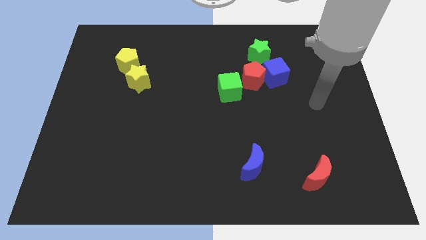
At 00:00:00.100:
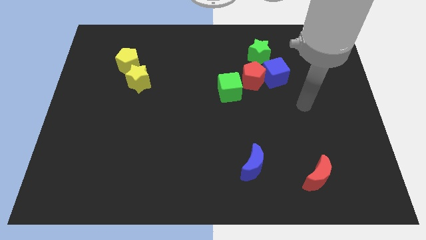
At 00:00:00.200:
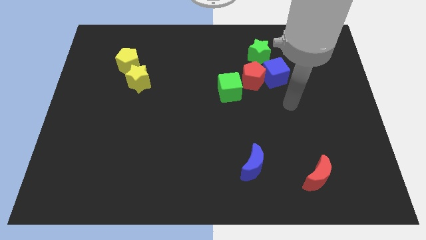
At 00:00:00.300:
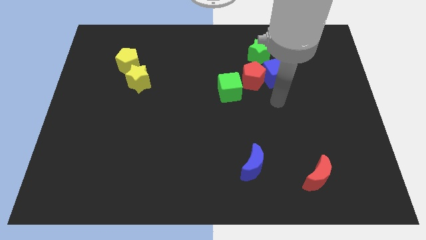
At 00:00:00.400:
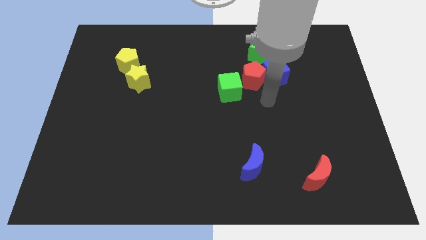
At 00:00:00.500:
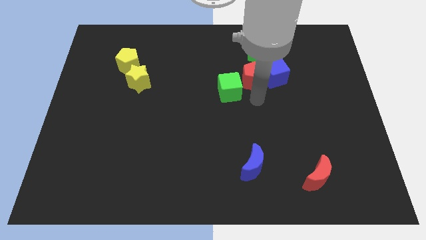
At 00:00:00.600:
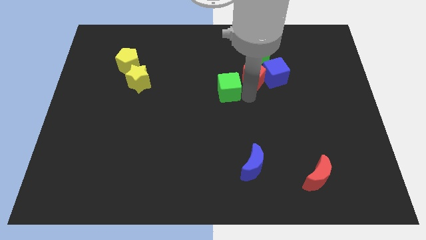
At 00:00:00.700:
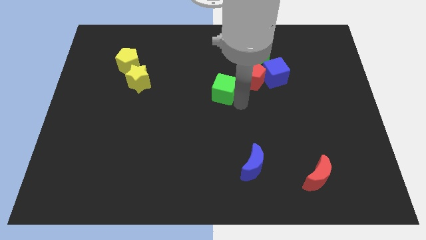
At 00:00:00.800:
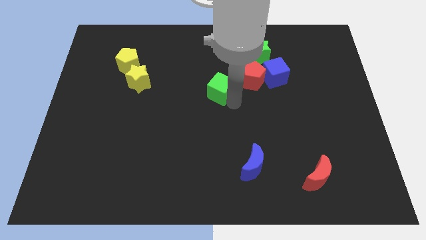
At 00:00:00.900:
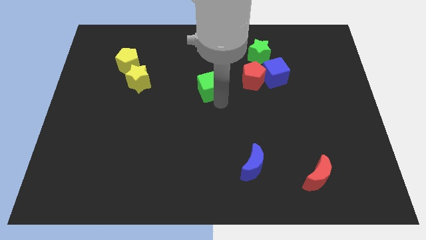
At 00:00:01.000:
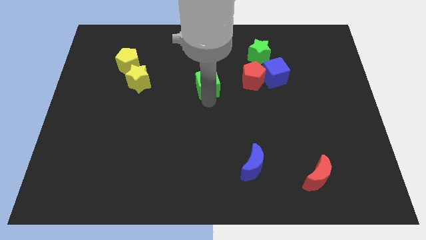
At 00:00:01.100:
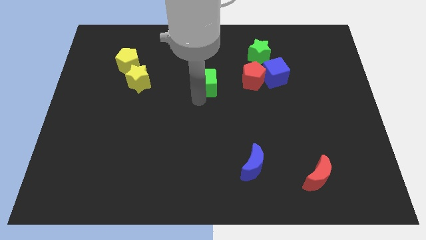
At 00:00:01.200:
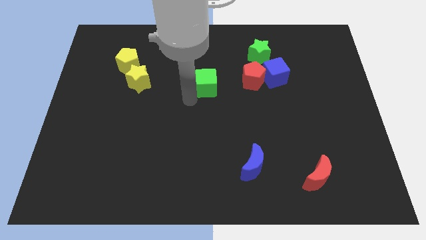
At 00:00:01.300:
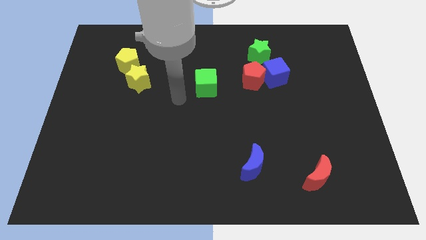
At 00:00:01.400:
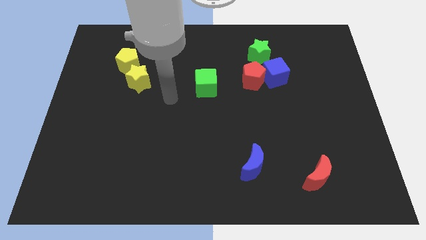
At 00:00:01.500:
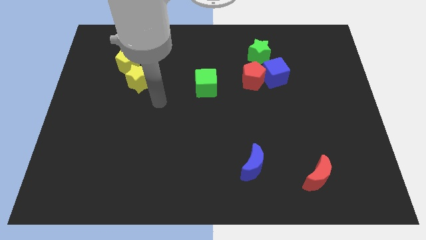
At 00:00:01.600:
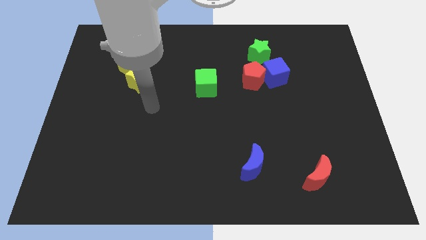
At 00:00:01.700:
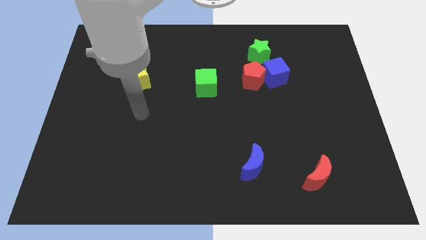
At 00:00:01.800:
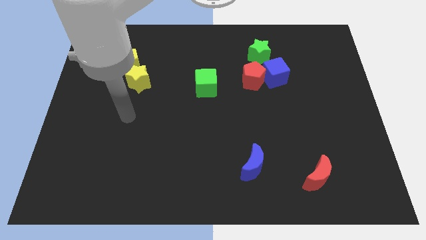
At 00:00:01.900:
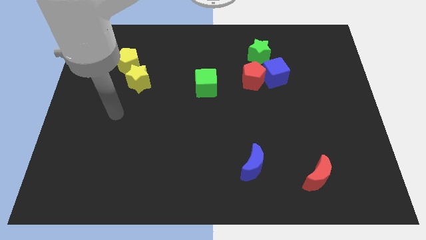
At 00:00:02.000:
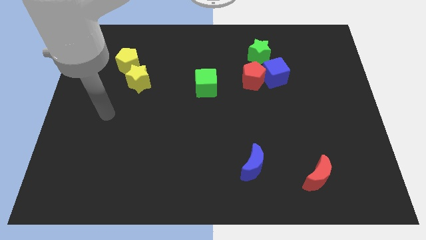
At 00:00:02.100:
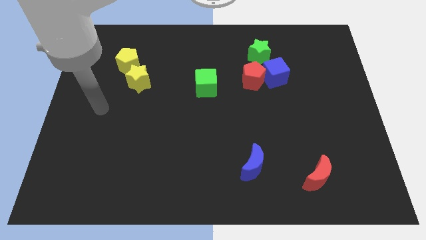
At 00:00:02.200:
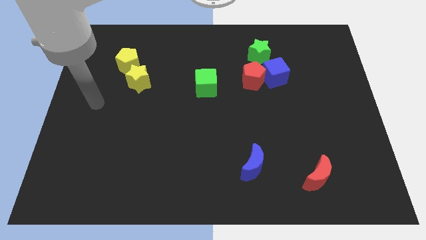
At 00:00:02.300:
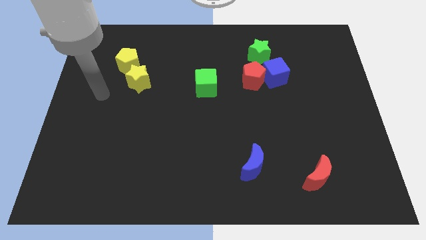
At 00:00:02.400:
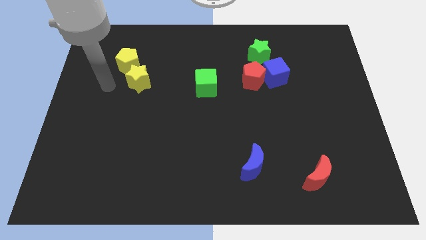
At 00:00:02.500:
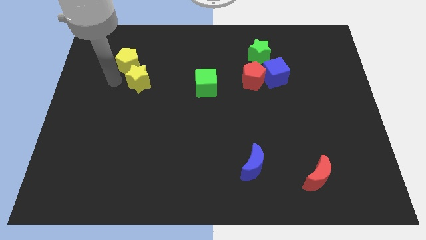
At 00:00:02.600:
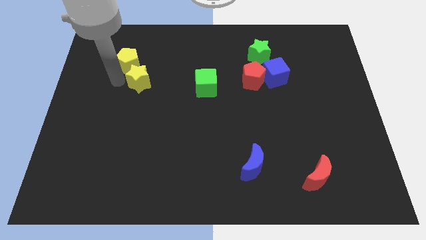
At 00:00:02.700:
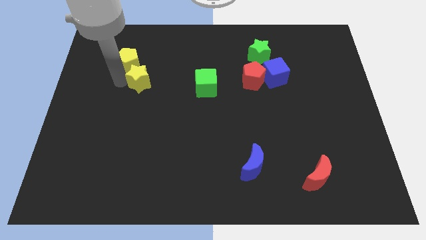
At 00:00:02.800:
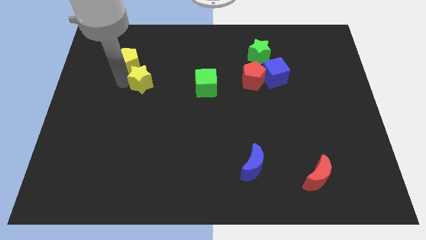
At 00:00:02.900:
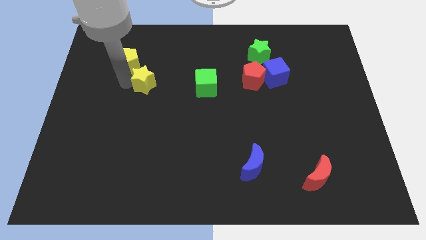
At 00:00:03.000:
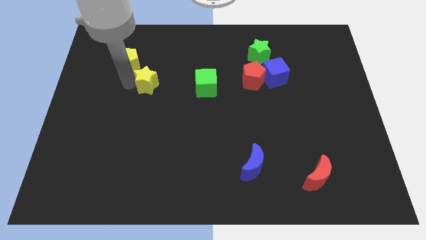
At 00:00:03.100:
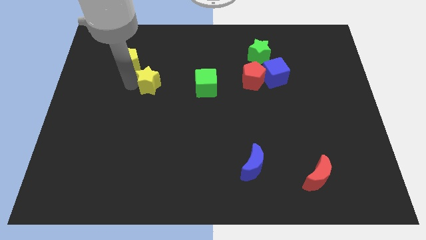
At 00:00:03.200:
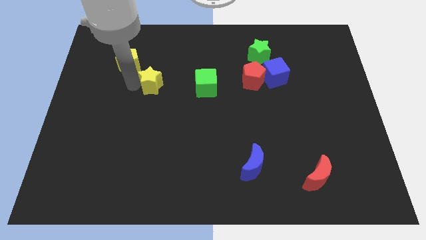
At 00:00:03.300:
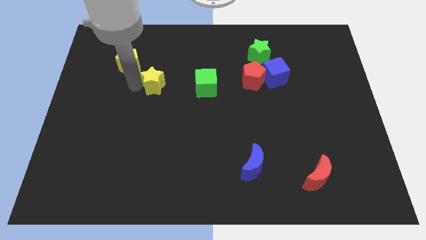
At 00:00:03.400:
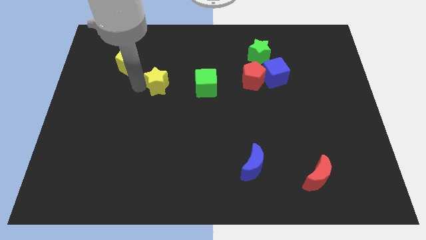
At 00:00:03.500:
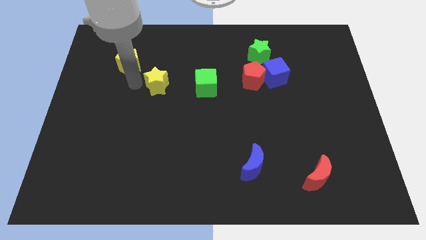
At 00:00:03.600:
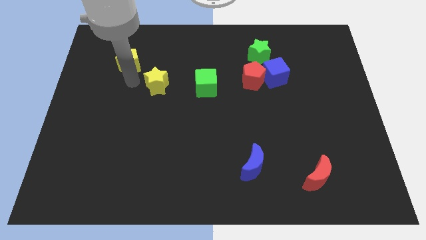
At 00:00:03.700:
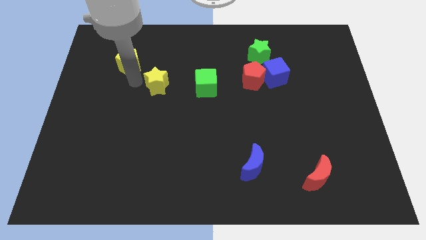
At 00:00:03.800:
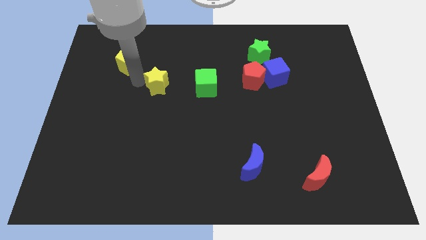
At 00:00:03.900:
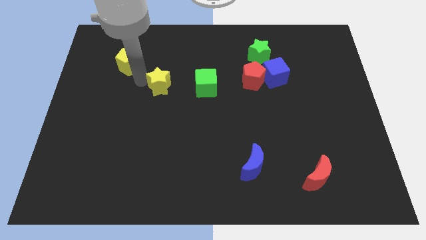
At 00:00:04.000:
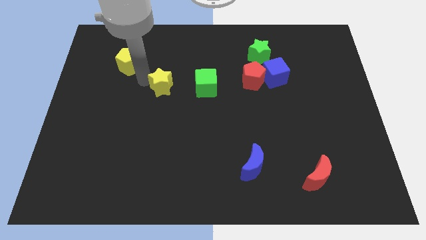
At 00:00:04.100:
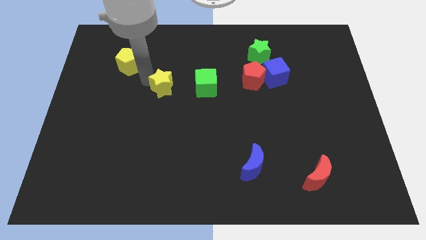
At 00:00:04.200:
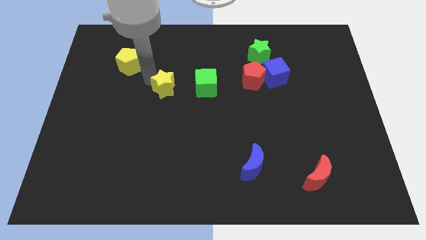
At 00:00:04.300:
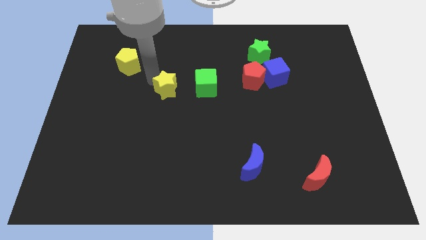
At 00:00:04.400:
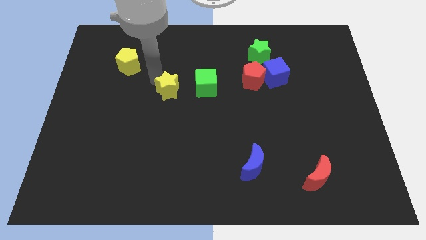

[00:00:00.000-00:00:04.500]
move the yellow star right somewhat

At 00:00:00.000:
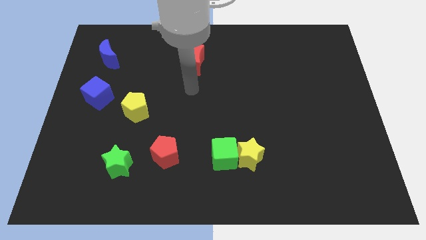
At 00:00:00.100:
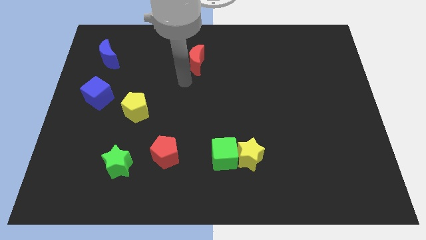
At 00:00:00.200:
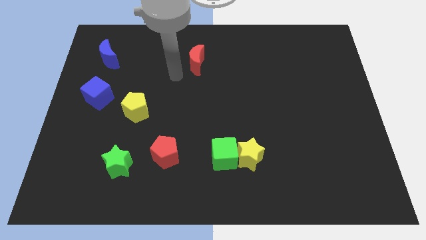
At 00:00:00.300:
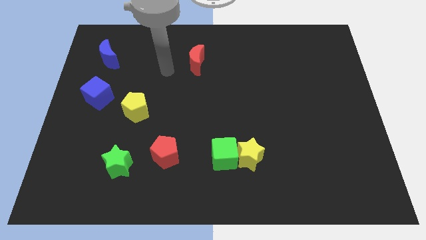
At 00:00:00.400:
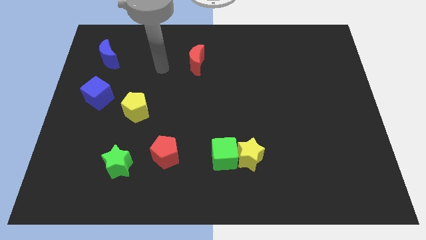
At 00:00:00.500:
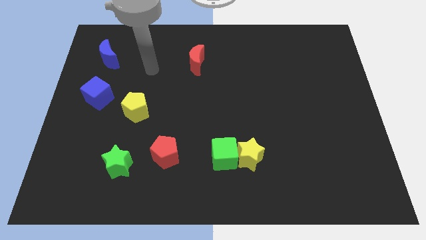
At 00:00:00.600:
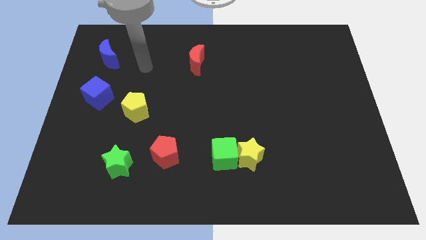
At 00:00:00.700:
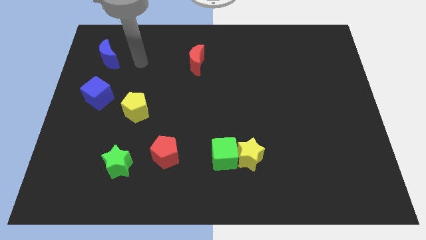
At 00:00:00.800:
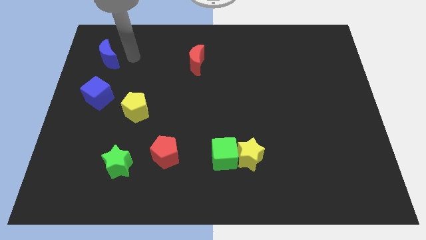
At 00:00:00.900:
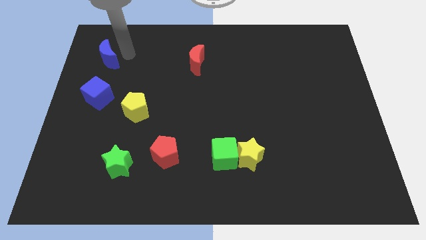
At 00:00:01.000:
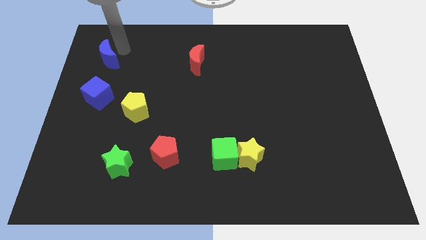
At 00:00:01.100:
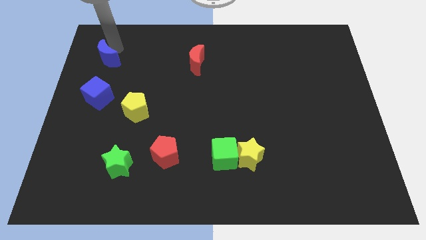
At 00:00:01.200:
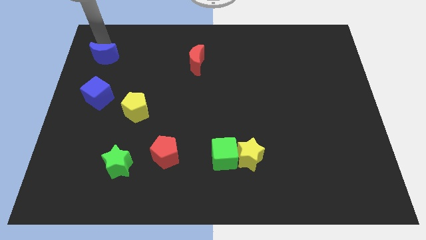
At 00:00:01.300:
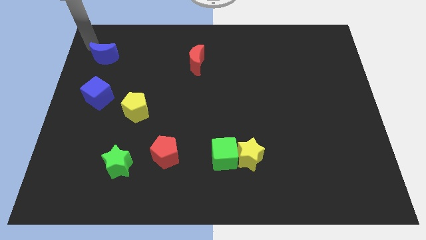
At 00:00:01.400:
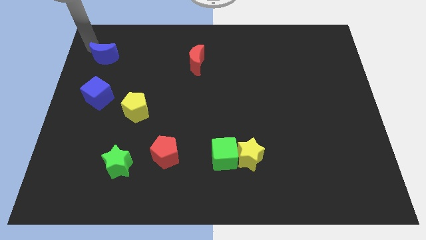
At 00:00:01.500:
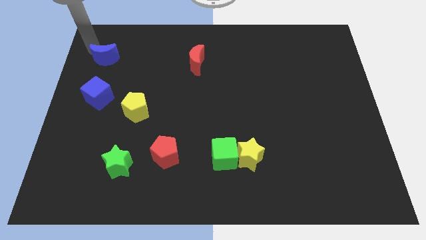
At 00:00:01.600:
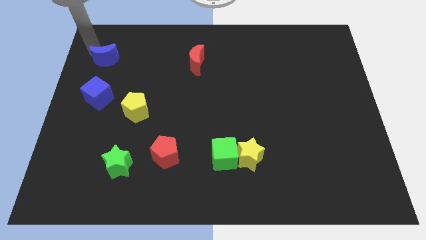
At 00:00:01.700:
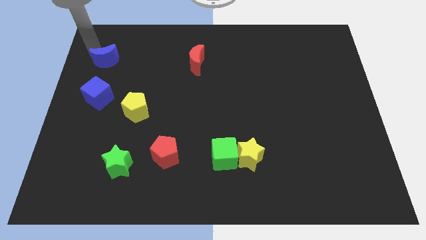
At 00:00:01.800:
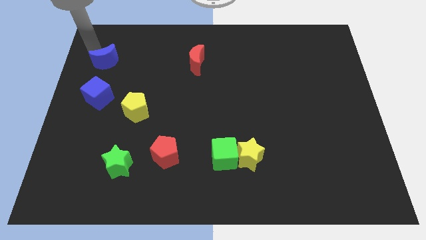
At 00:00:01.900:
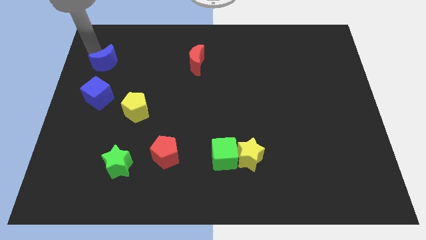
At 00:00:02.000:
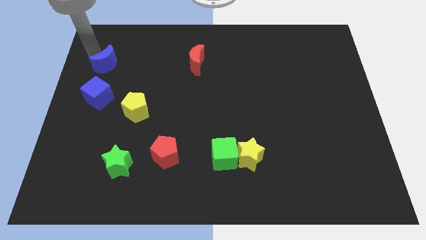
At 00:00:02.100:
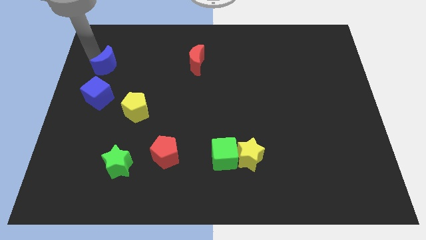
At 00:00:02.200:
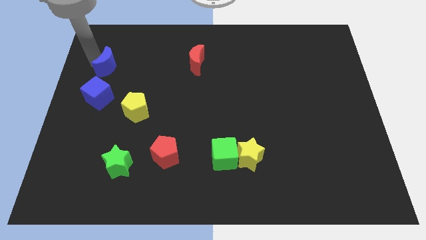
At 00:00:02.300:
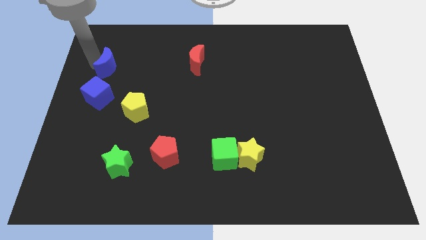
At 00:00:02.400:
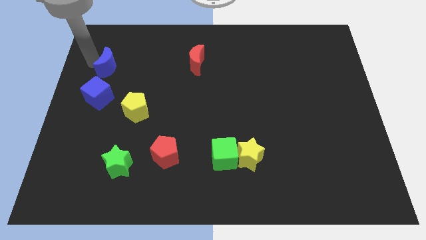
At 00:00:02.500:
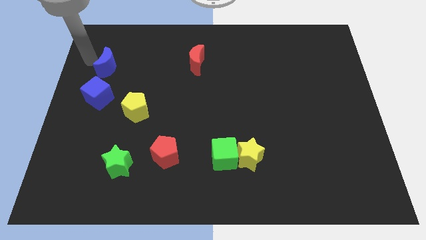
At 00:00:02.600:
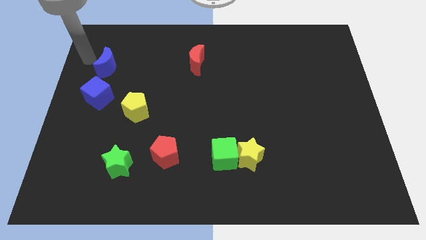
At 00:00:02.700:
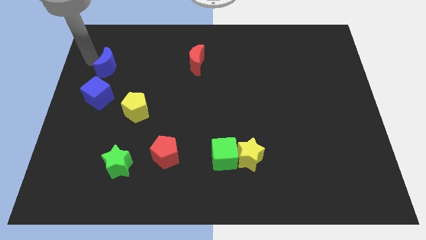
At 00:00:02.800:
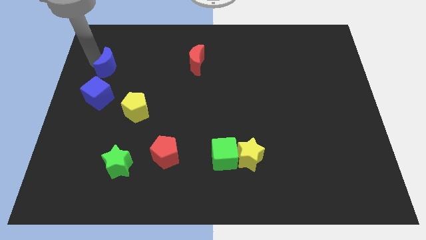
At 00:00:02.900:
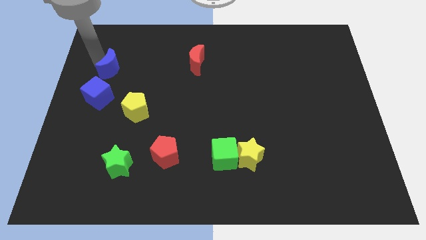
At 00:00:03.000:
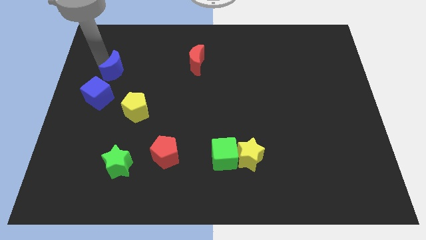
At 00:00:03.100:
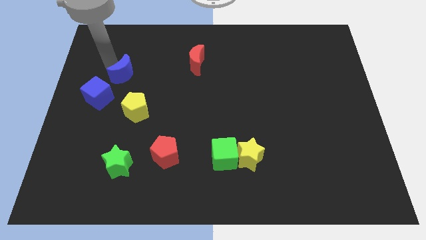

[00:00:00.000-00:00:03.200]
slightly push the blue moon diagonally down and to the right

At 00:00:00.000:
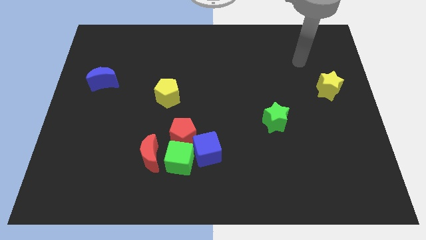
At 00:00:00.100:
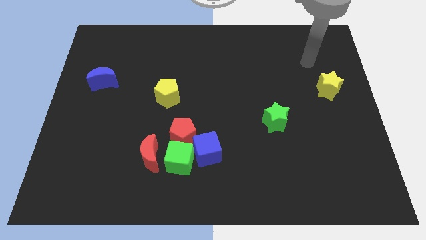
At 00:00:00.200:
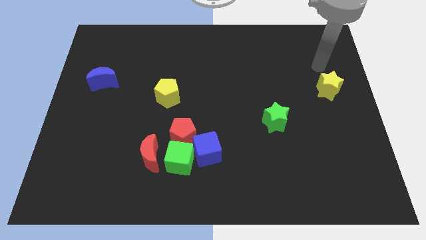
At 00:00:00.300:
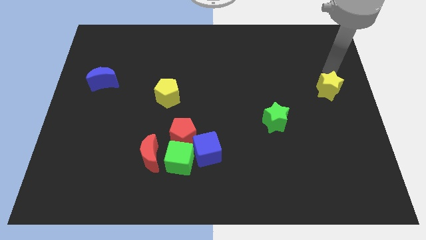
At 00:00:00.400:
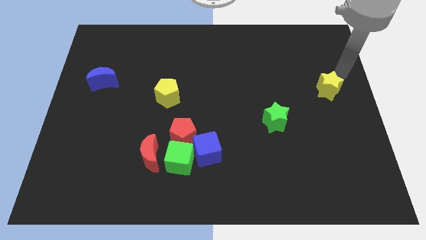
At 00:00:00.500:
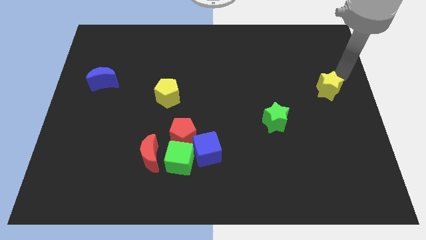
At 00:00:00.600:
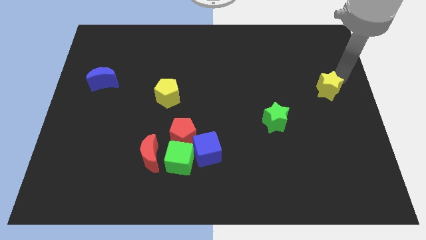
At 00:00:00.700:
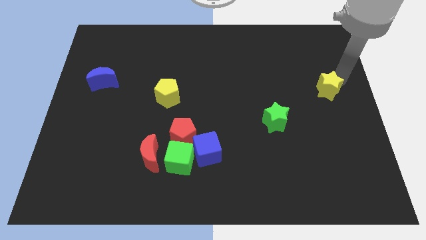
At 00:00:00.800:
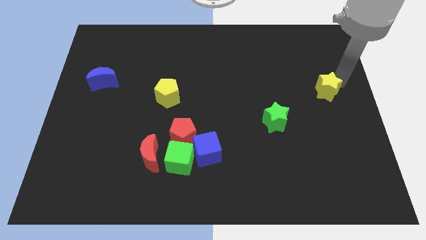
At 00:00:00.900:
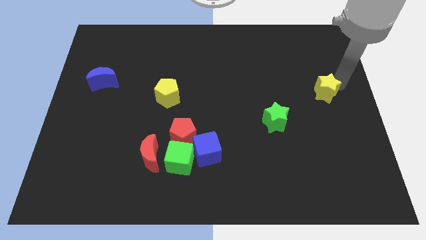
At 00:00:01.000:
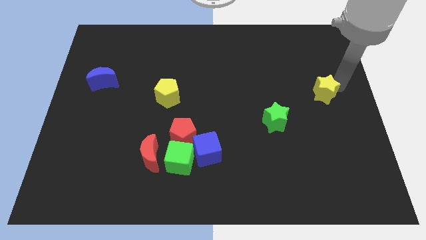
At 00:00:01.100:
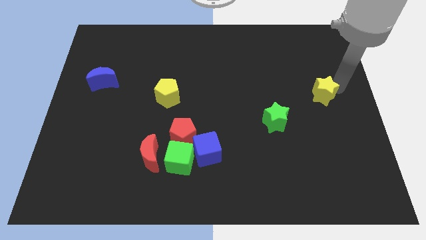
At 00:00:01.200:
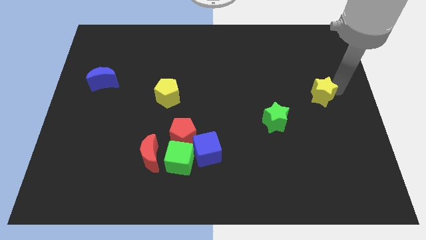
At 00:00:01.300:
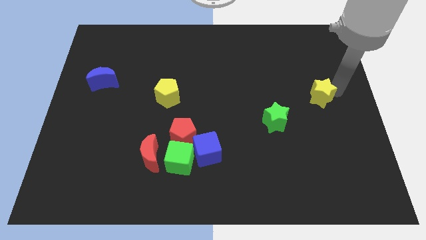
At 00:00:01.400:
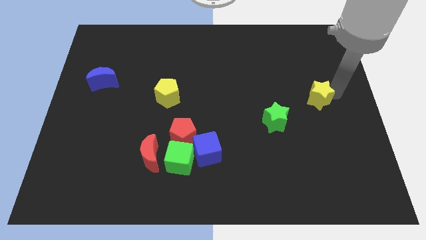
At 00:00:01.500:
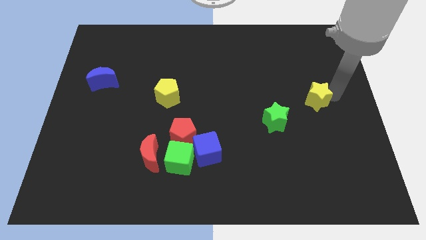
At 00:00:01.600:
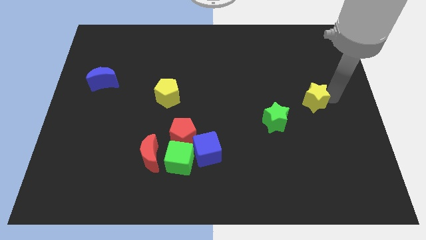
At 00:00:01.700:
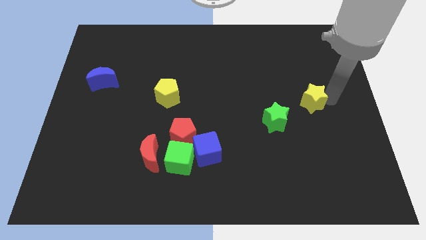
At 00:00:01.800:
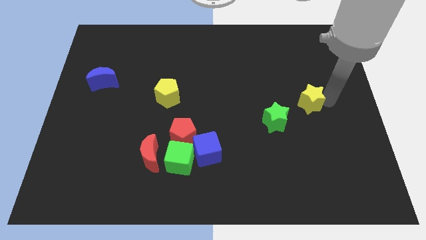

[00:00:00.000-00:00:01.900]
slightly slide the yellow star downwards and to the left
